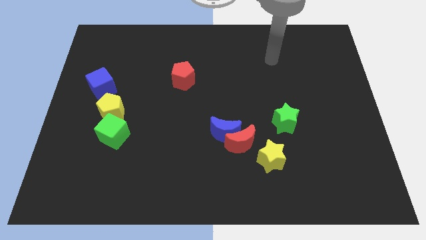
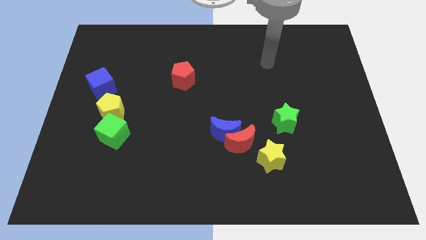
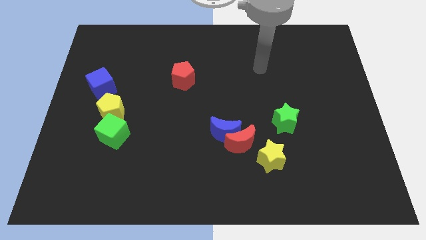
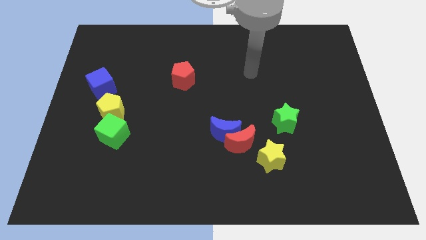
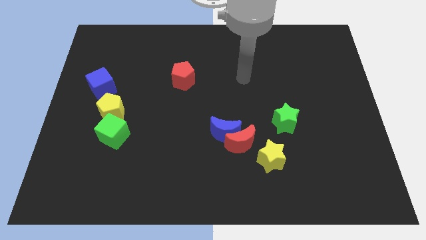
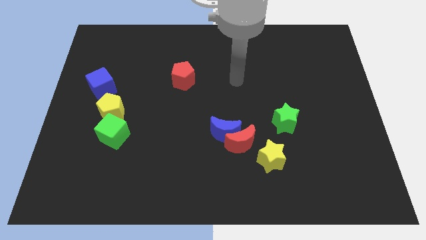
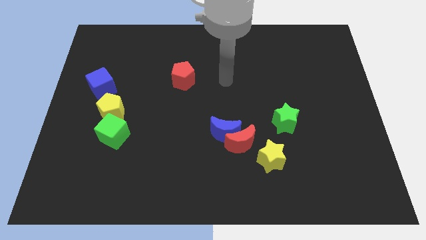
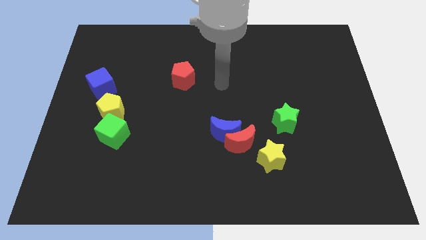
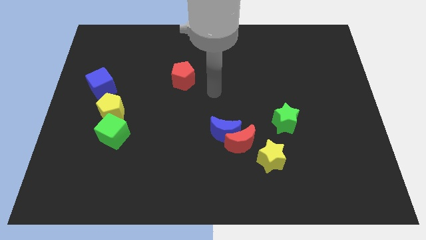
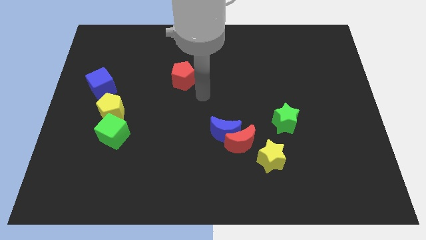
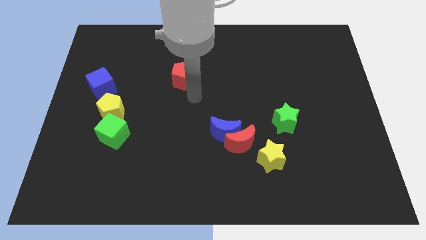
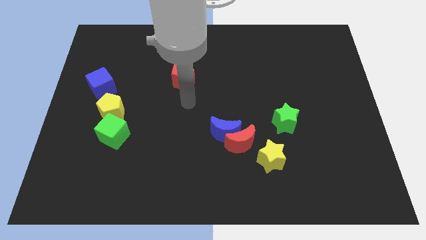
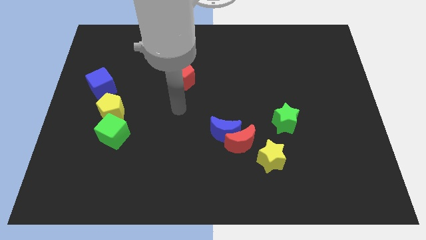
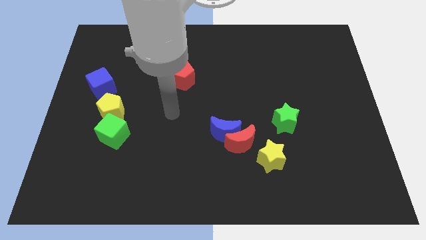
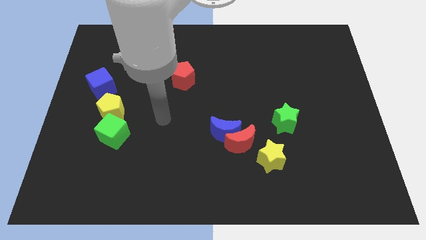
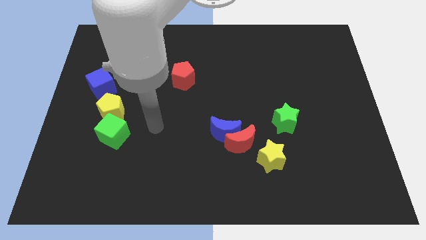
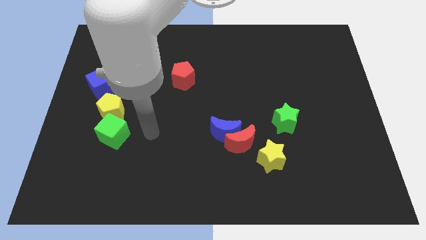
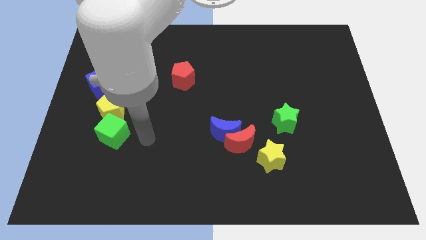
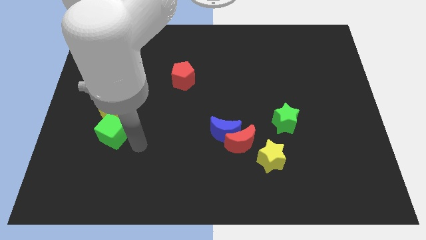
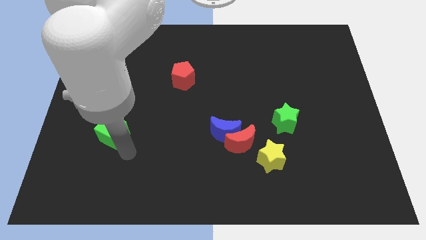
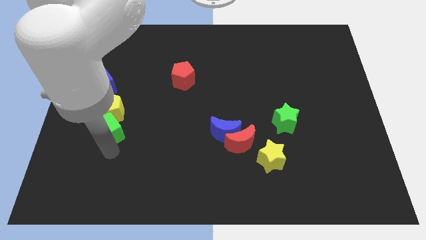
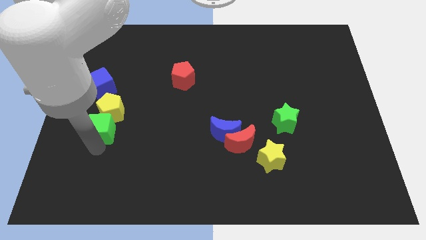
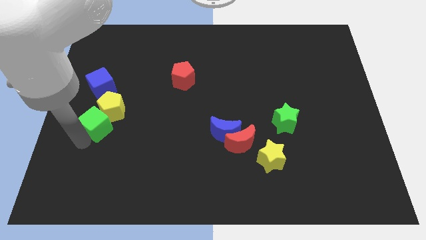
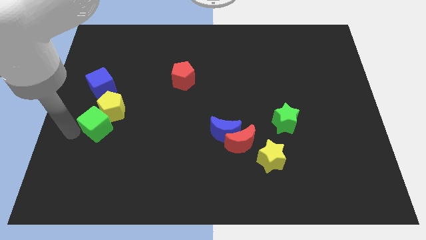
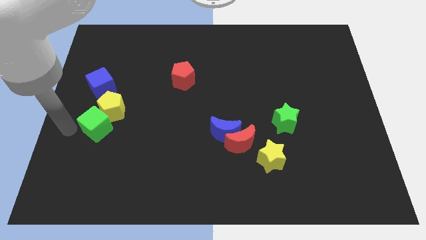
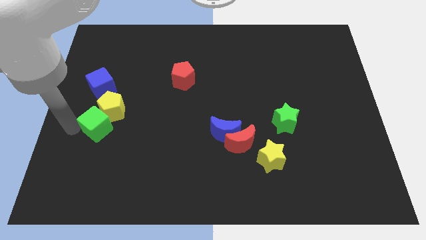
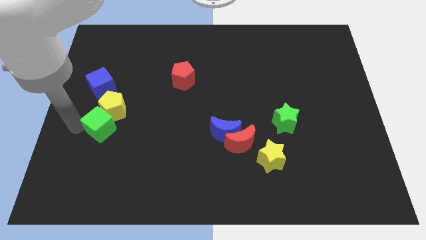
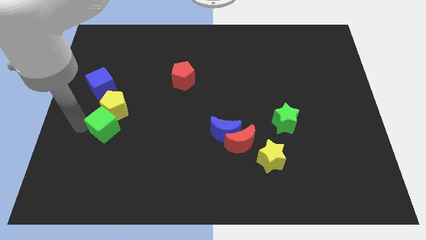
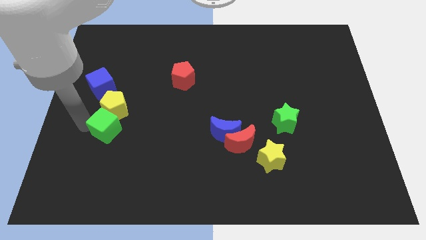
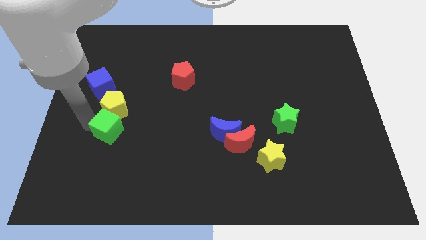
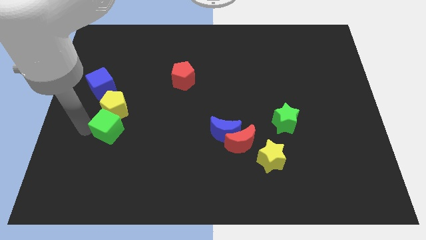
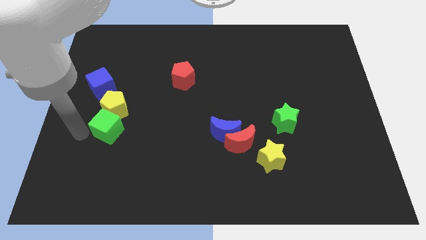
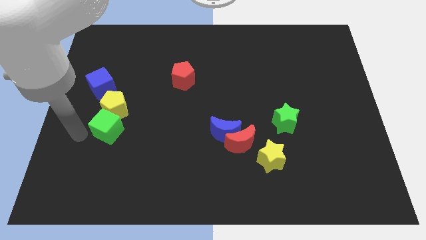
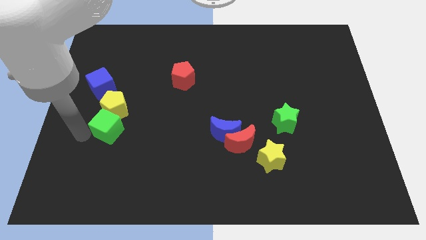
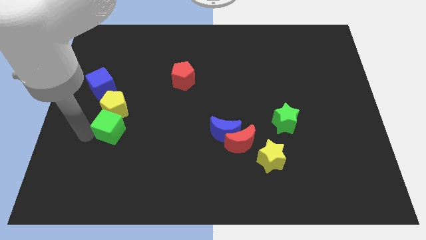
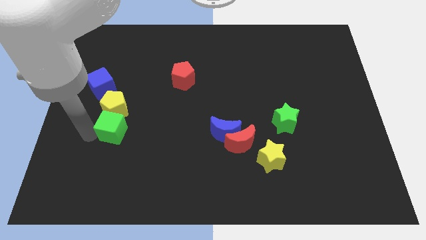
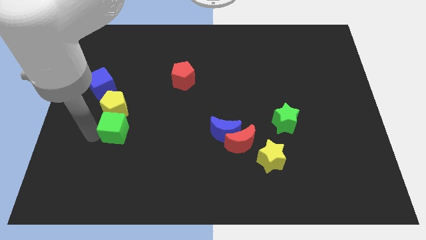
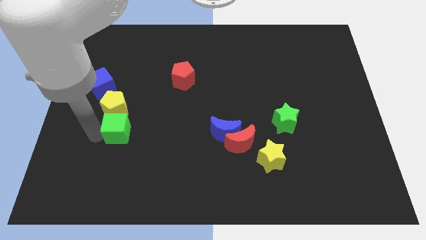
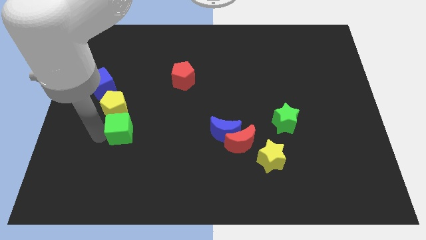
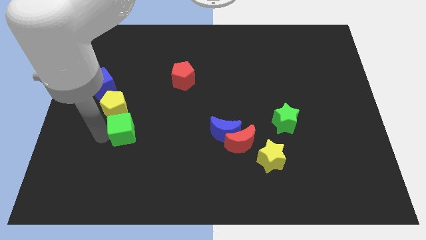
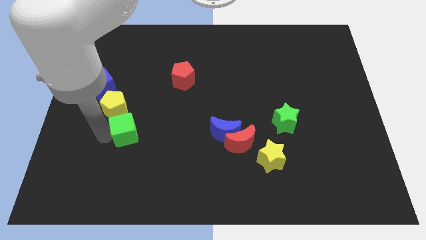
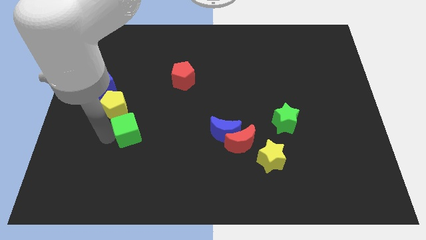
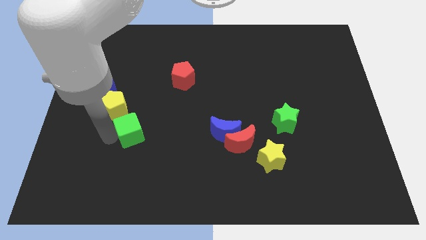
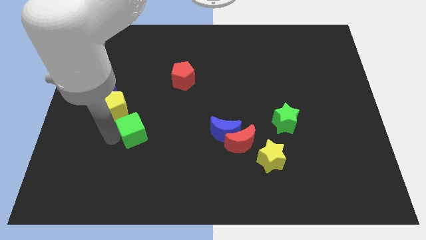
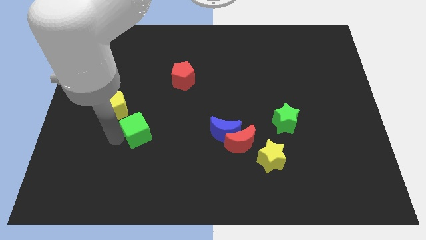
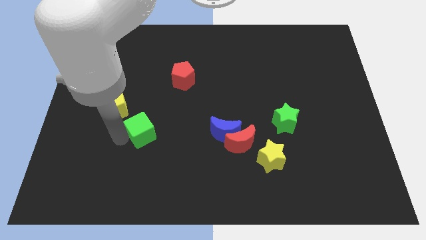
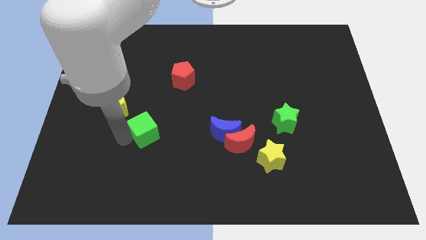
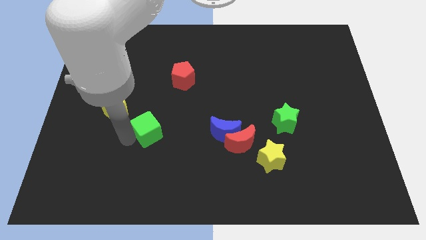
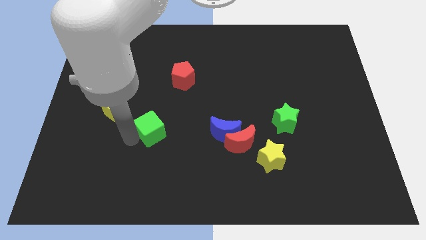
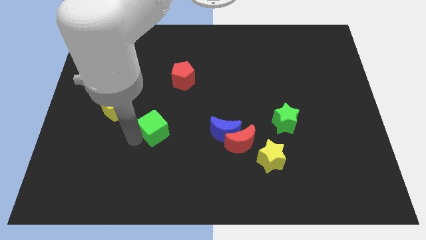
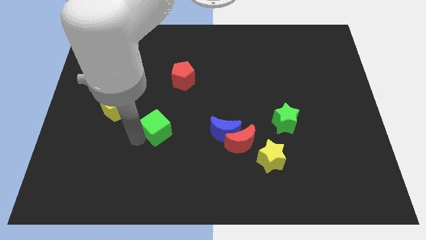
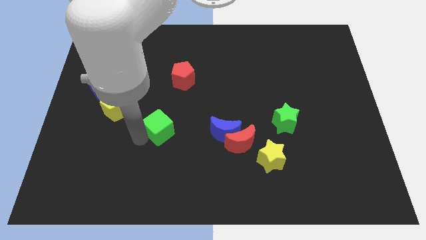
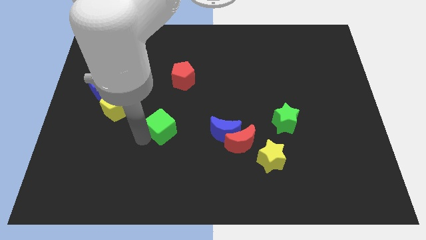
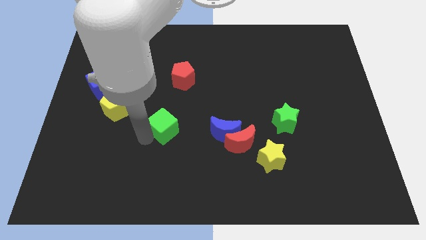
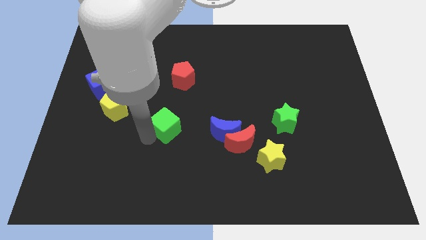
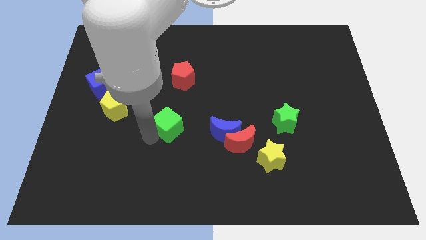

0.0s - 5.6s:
move the green cube to the middle of the board

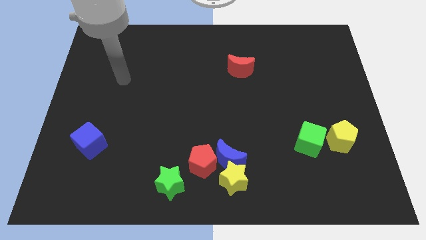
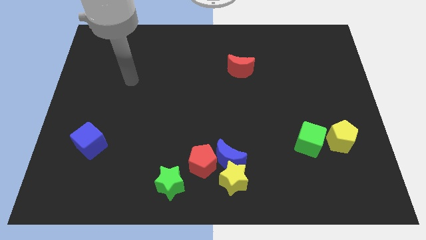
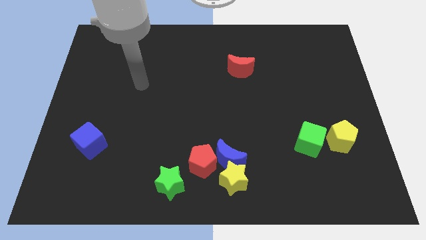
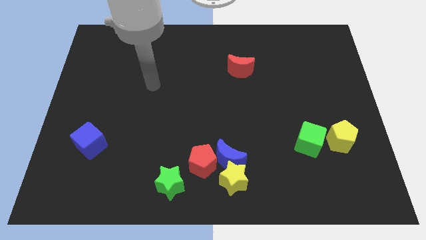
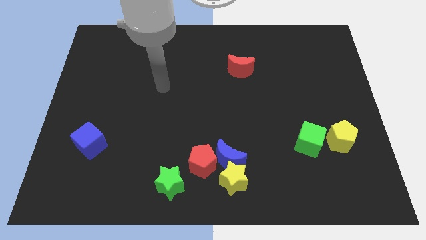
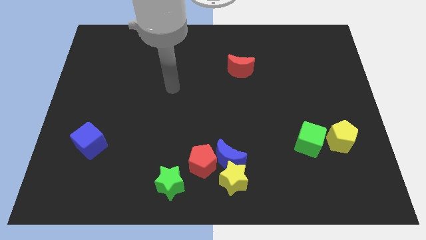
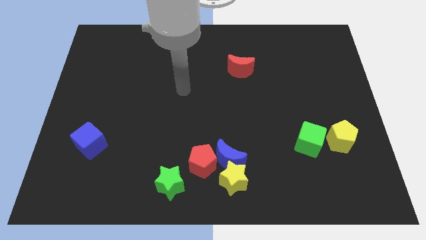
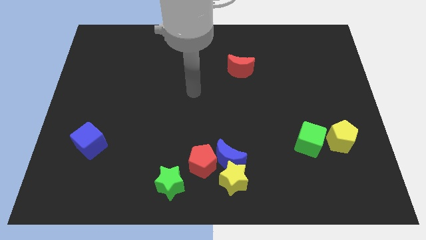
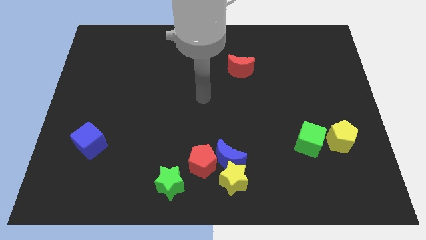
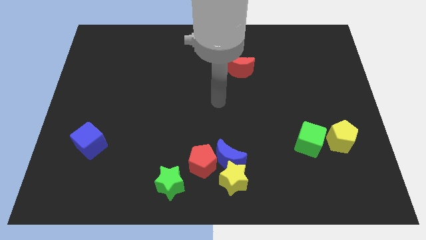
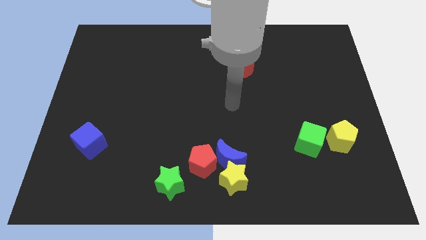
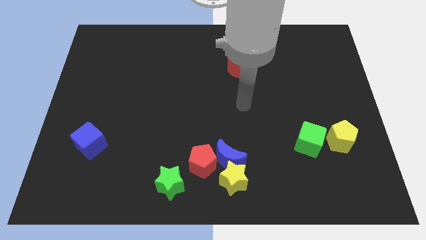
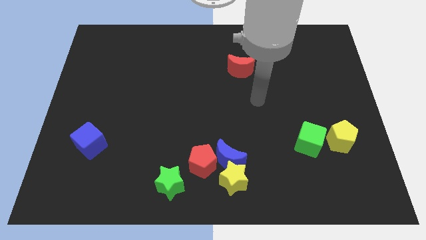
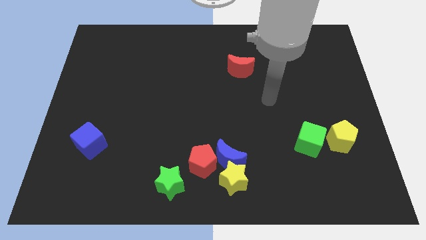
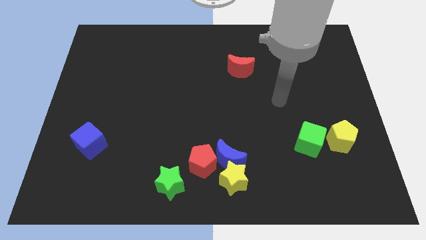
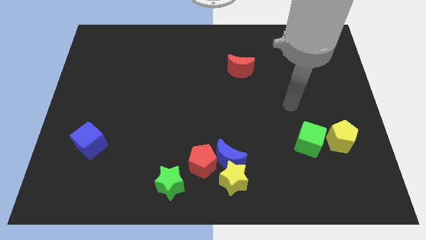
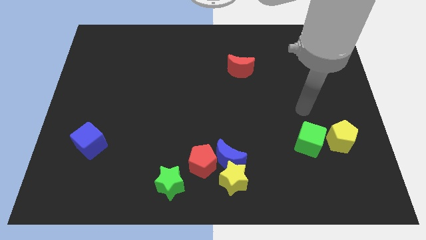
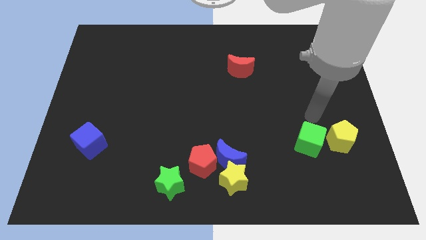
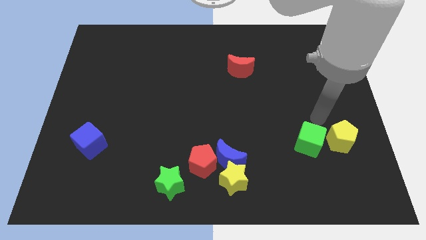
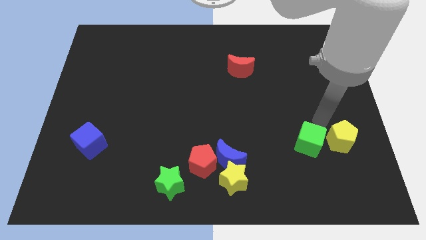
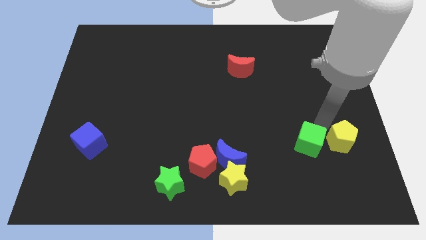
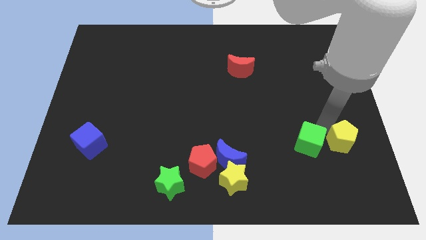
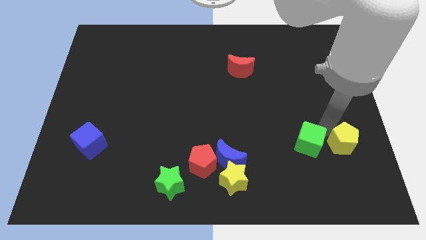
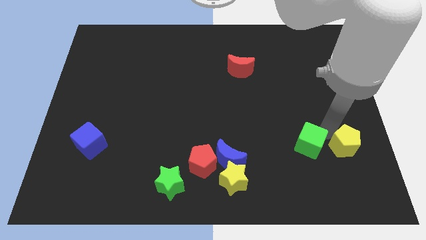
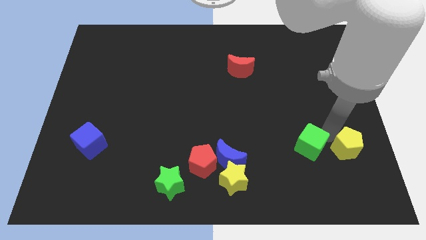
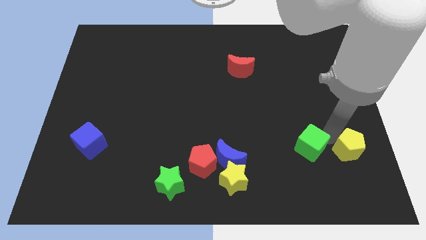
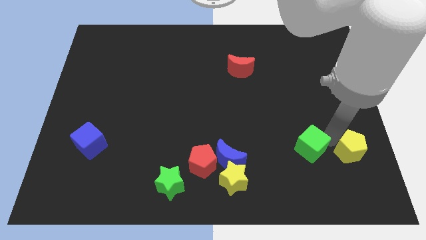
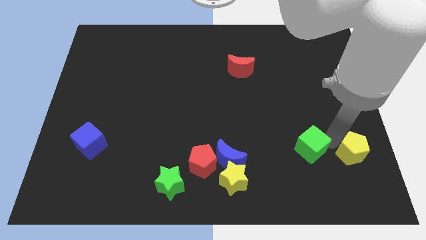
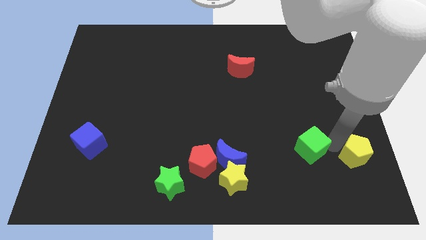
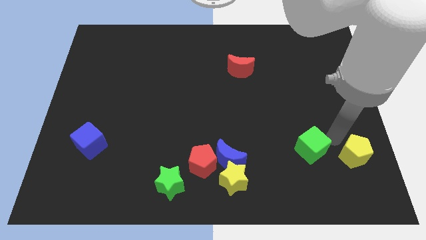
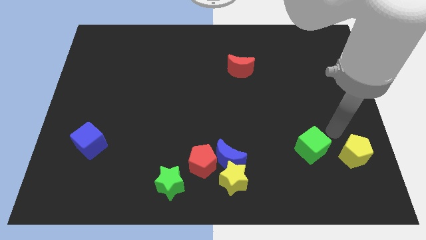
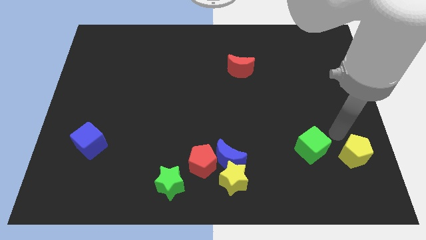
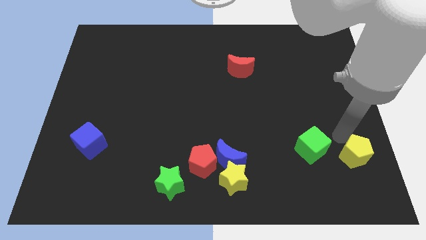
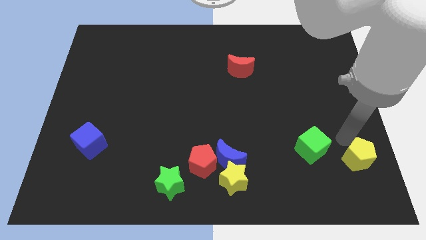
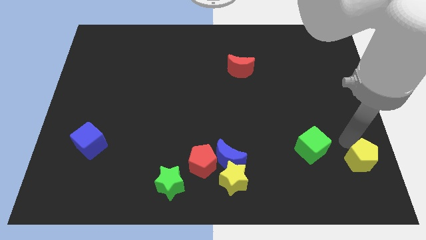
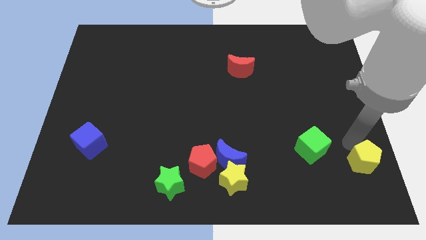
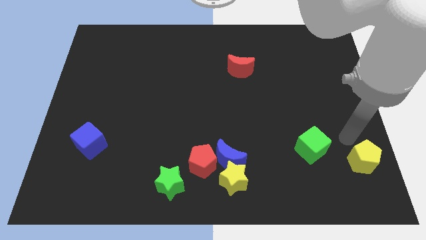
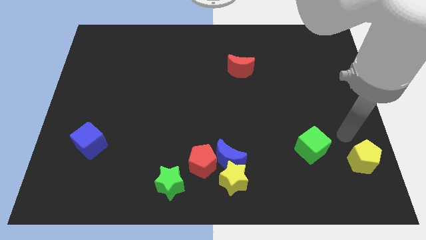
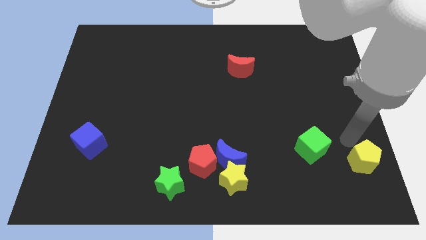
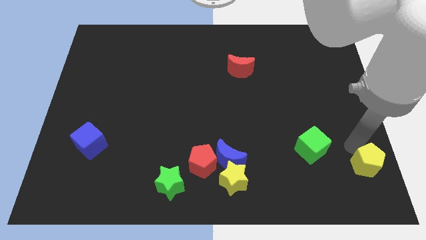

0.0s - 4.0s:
move the yellow pentagon to the lower right corner
